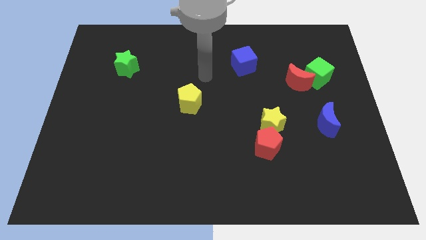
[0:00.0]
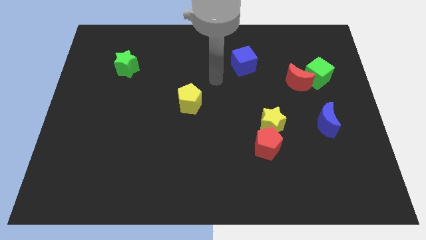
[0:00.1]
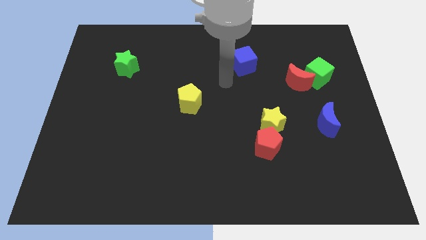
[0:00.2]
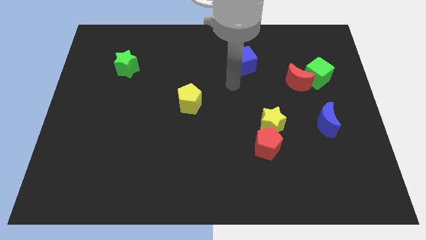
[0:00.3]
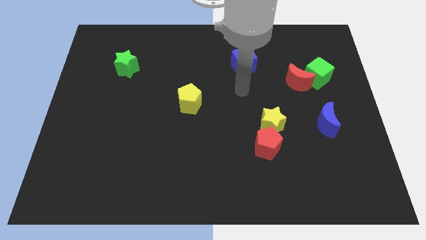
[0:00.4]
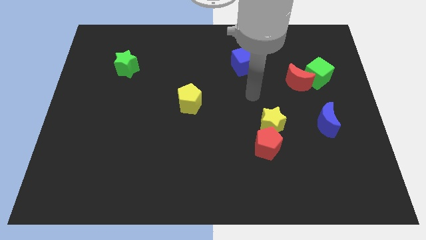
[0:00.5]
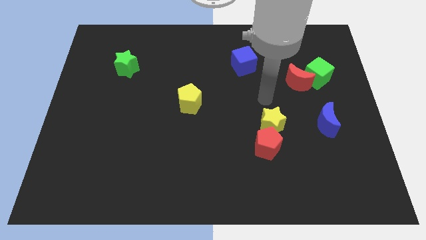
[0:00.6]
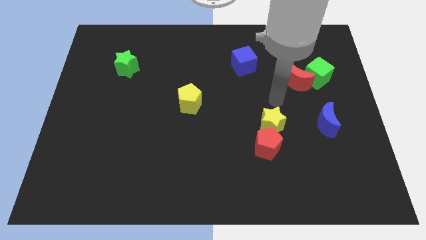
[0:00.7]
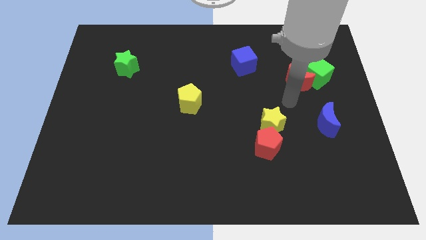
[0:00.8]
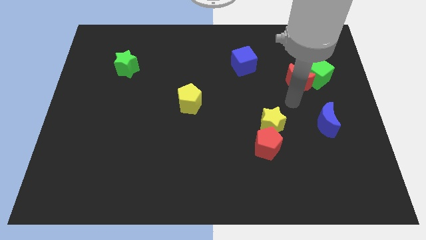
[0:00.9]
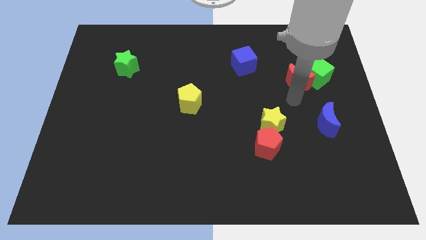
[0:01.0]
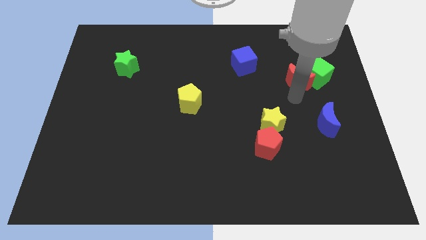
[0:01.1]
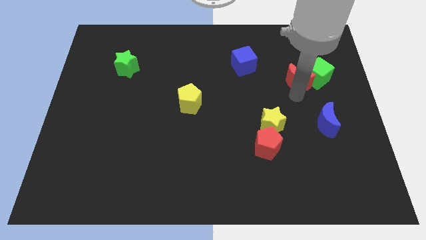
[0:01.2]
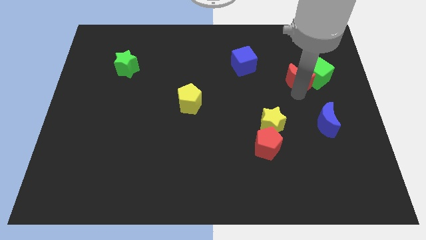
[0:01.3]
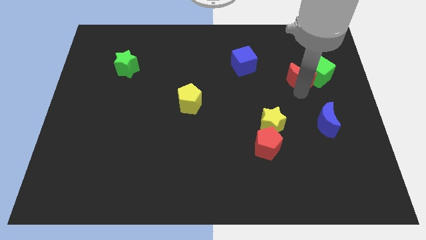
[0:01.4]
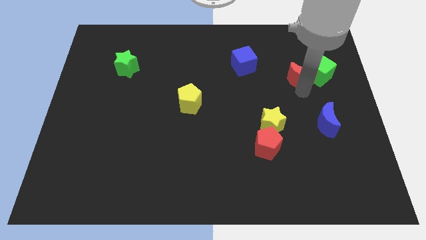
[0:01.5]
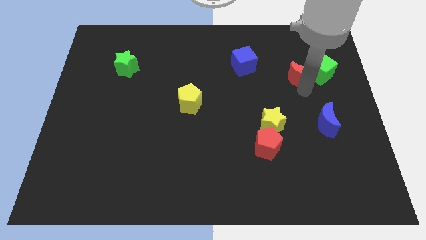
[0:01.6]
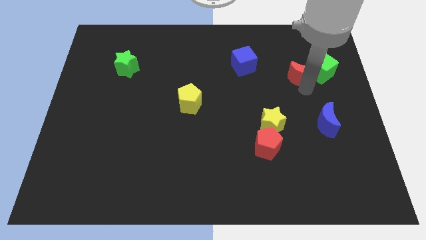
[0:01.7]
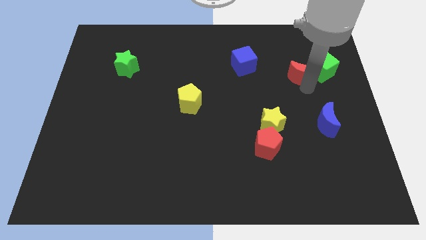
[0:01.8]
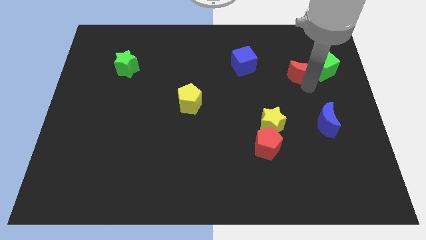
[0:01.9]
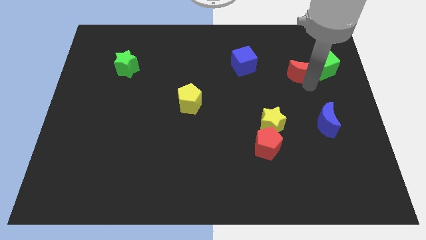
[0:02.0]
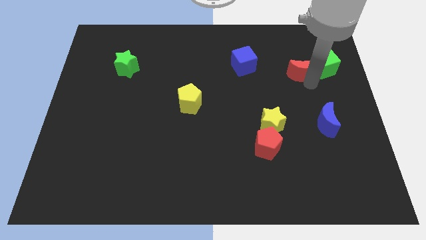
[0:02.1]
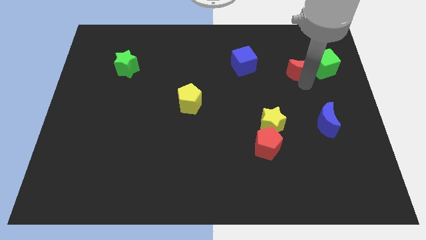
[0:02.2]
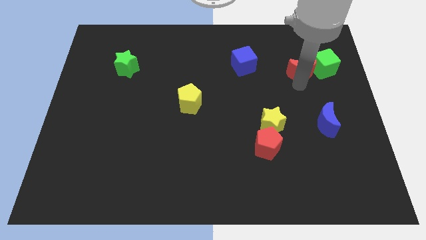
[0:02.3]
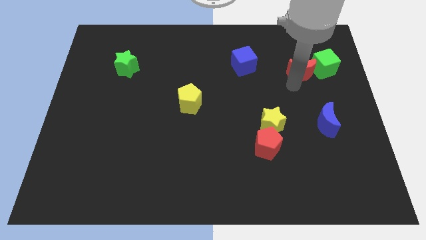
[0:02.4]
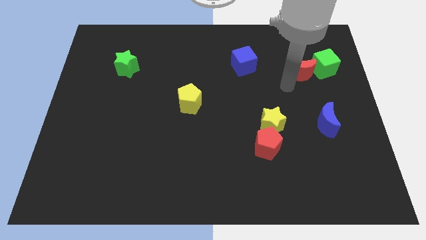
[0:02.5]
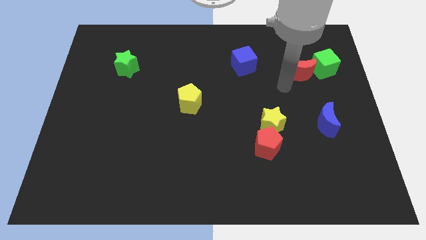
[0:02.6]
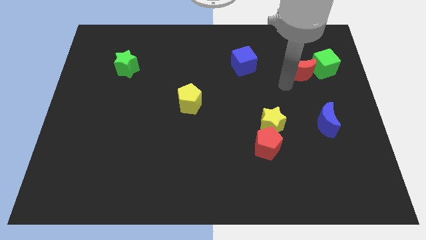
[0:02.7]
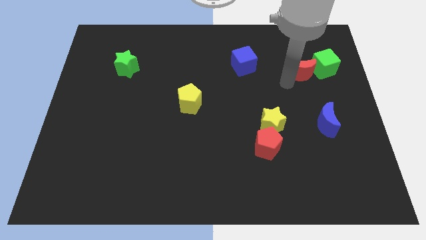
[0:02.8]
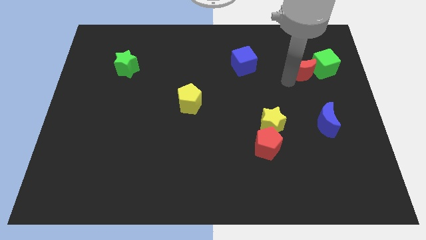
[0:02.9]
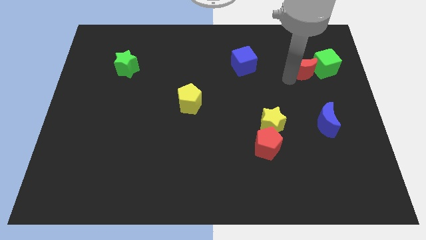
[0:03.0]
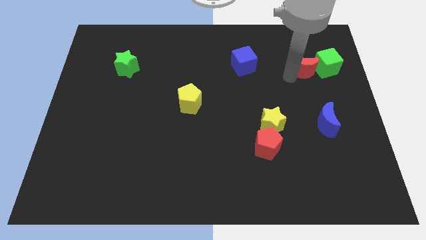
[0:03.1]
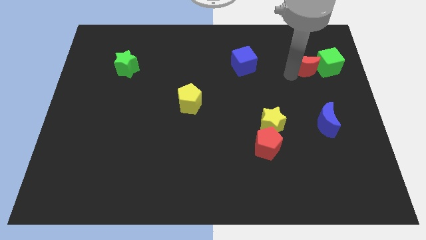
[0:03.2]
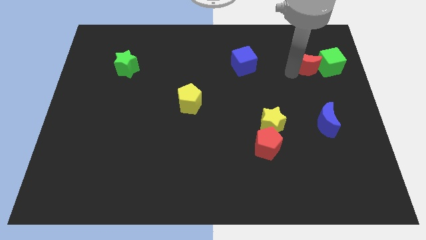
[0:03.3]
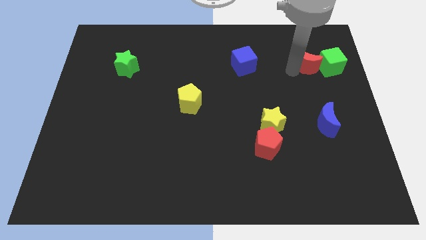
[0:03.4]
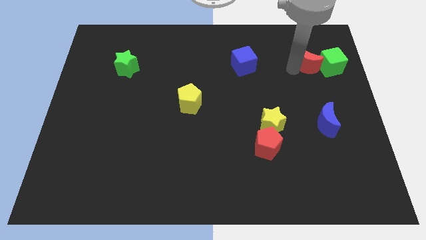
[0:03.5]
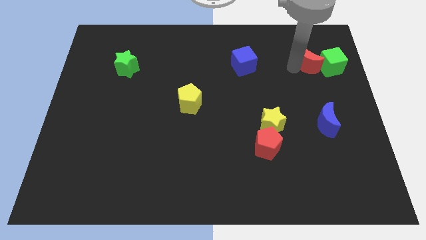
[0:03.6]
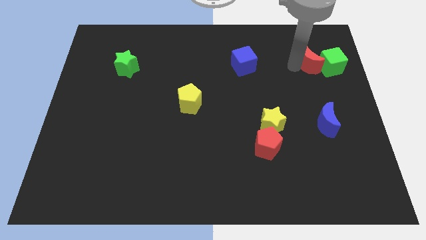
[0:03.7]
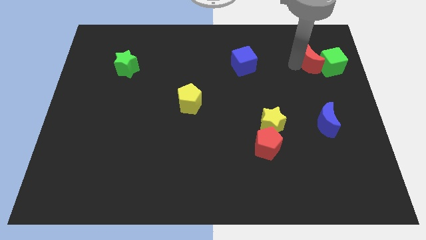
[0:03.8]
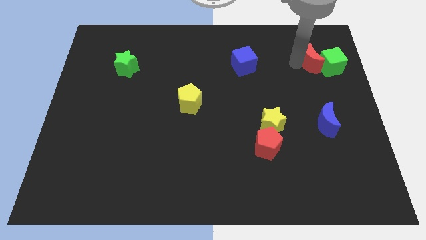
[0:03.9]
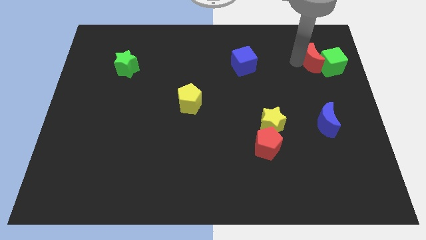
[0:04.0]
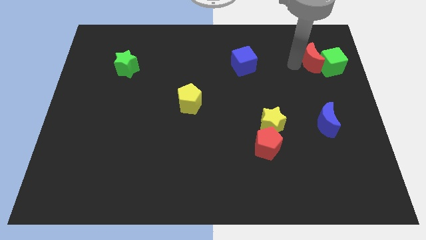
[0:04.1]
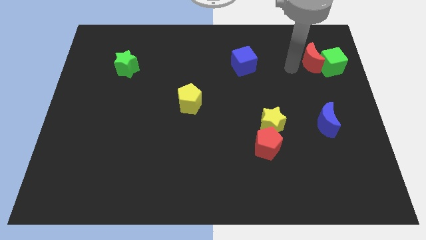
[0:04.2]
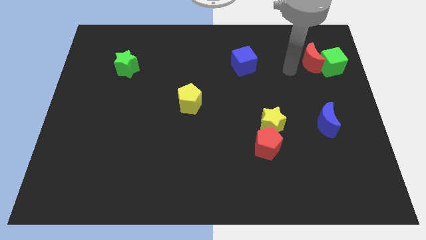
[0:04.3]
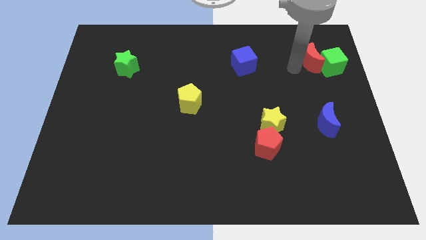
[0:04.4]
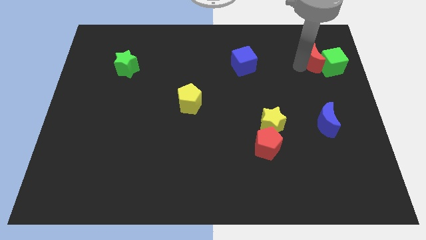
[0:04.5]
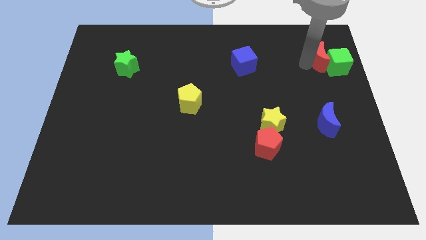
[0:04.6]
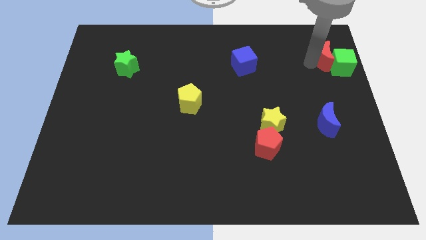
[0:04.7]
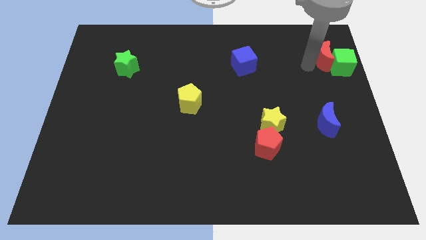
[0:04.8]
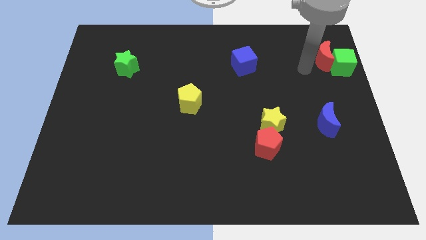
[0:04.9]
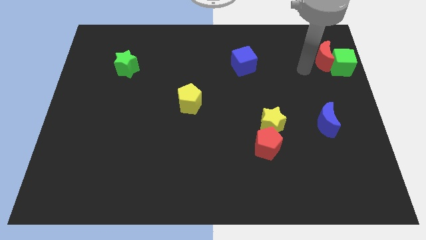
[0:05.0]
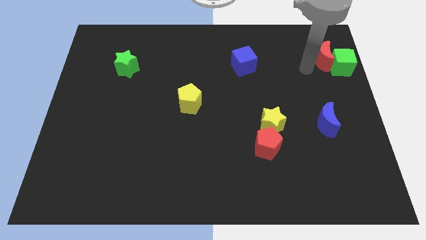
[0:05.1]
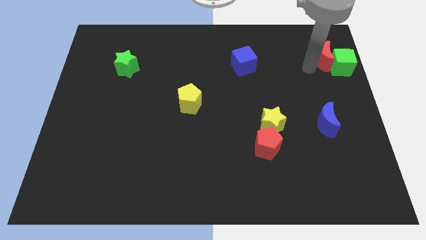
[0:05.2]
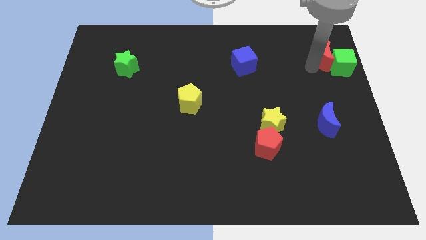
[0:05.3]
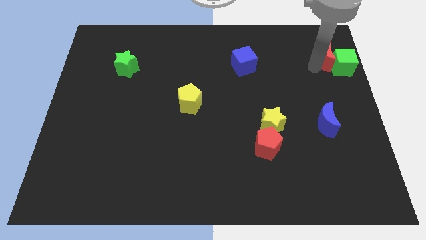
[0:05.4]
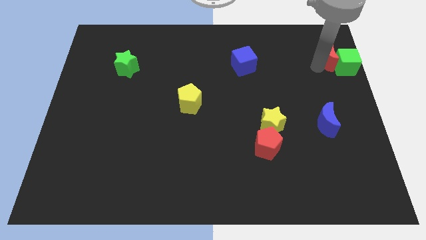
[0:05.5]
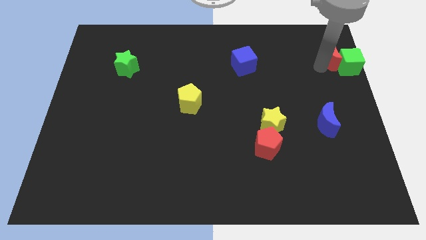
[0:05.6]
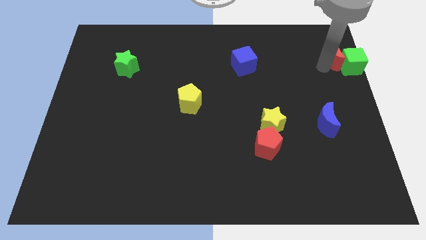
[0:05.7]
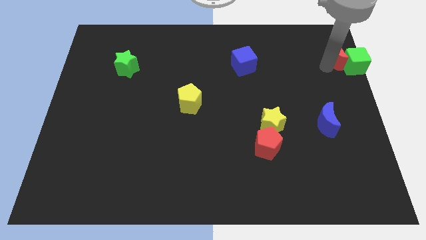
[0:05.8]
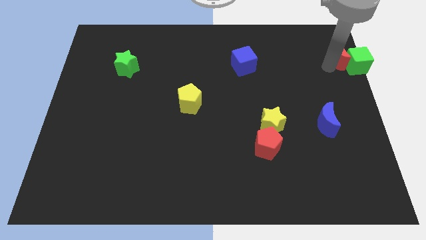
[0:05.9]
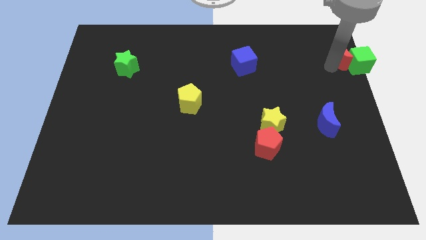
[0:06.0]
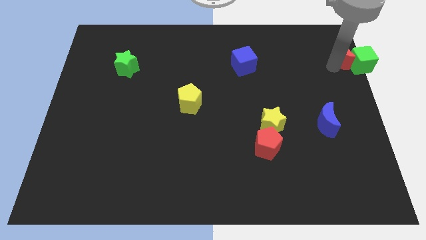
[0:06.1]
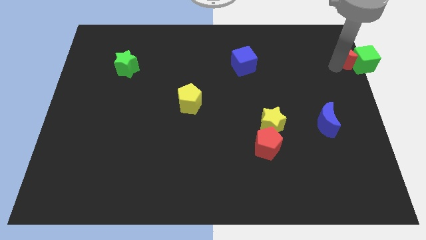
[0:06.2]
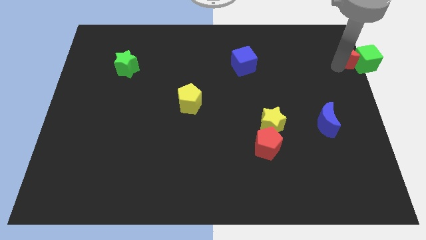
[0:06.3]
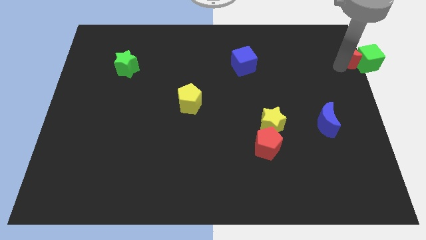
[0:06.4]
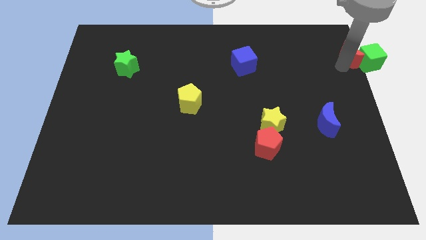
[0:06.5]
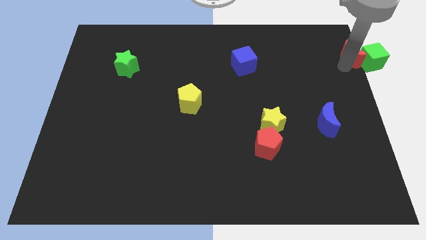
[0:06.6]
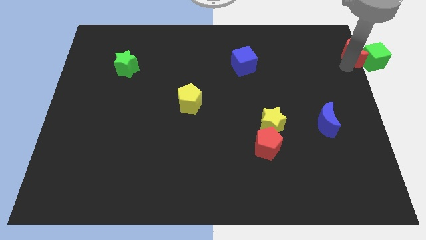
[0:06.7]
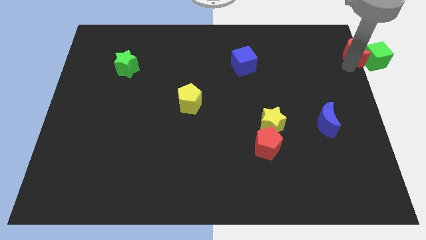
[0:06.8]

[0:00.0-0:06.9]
slide the red moon to the top right of the board
